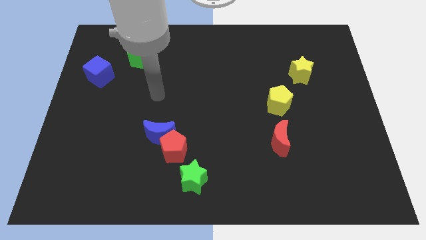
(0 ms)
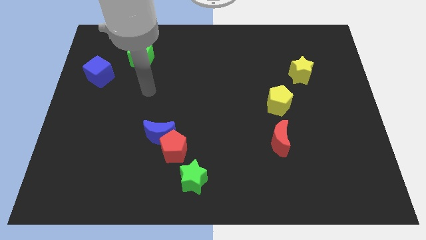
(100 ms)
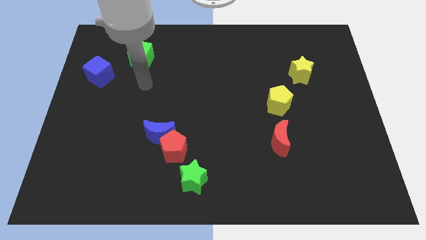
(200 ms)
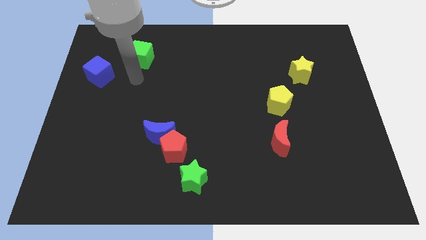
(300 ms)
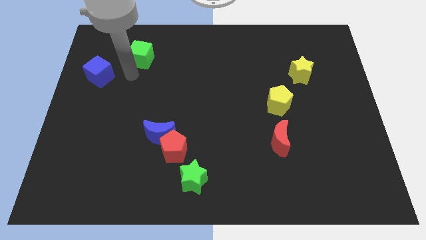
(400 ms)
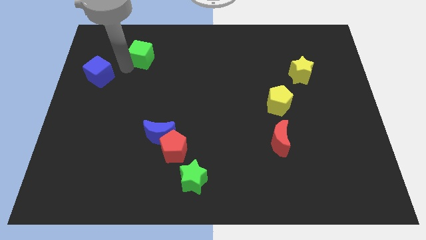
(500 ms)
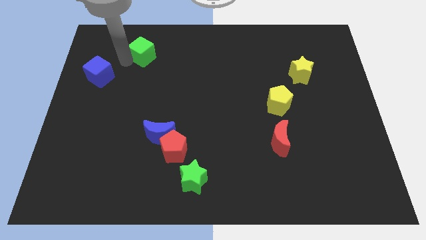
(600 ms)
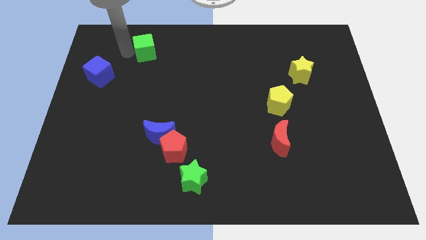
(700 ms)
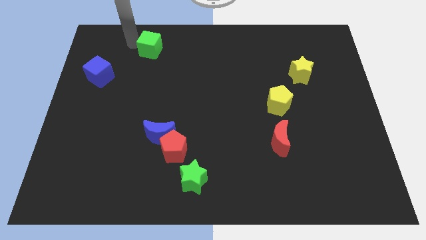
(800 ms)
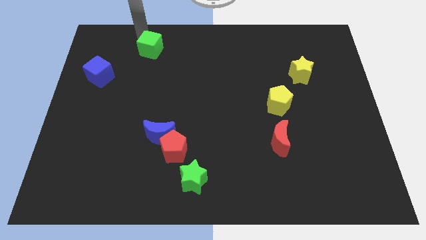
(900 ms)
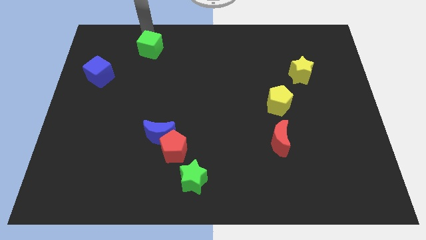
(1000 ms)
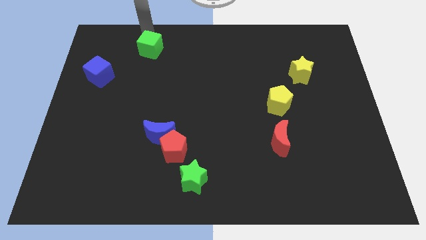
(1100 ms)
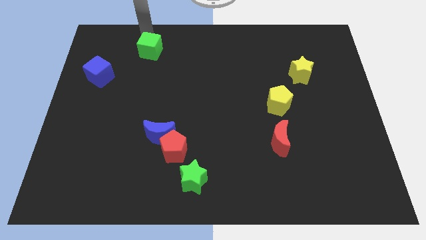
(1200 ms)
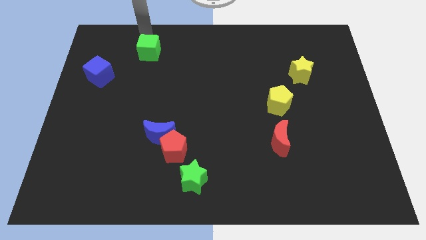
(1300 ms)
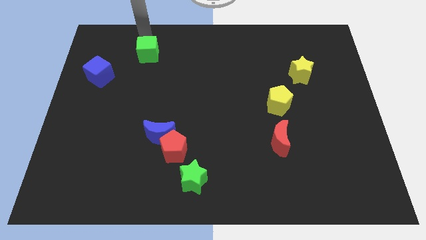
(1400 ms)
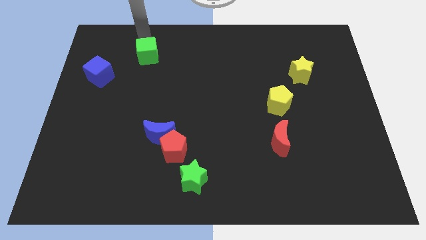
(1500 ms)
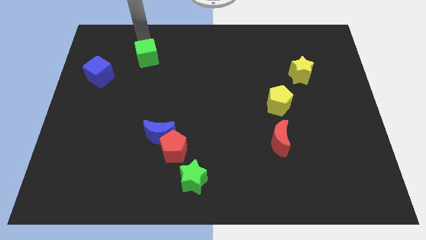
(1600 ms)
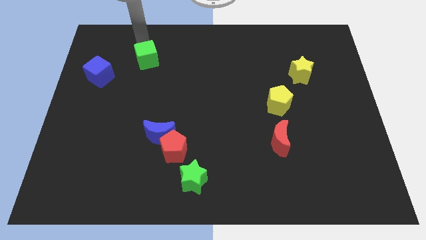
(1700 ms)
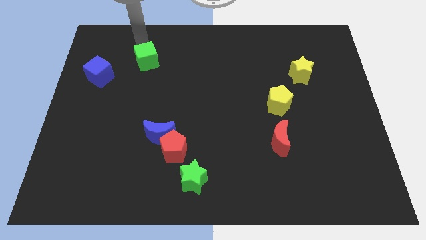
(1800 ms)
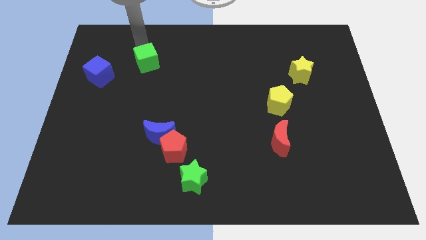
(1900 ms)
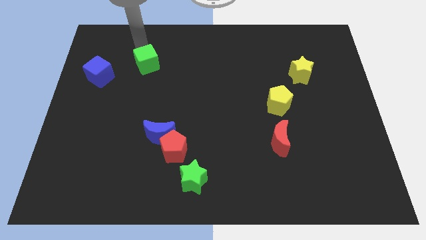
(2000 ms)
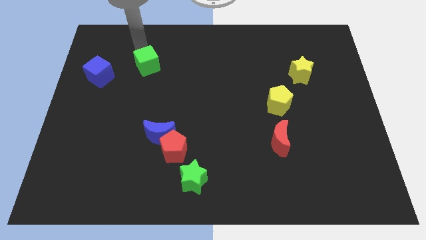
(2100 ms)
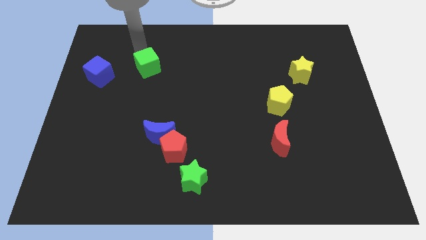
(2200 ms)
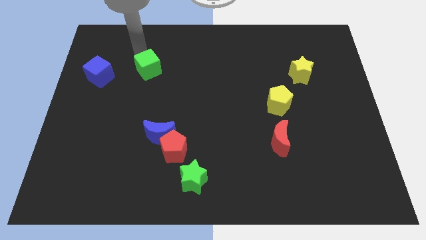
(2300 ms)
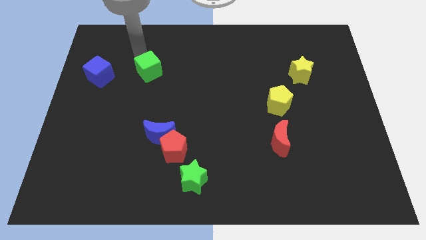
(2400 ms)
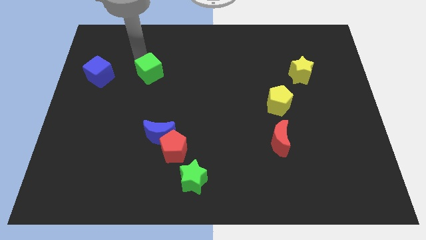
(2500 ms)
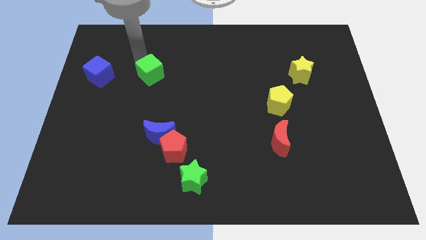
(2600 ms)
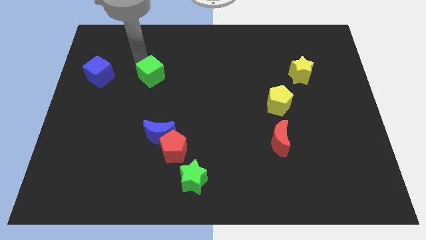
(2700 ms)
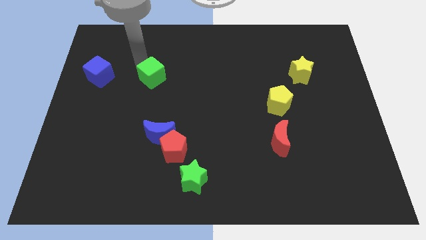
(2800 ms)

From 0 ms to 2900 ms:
slightly slide the green cube diagonally downwards and right

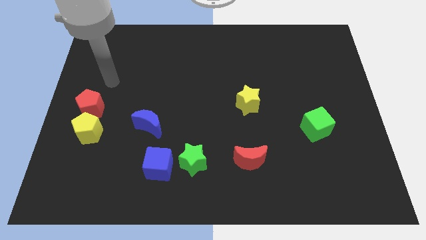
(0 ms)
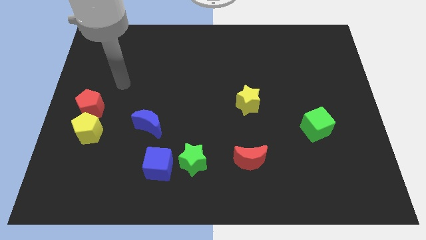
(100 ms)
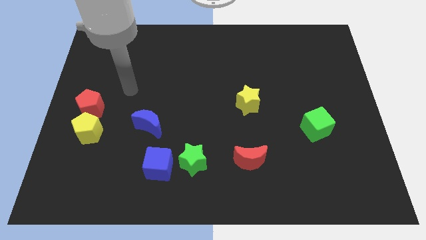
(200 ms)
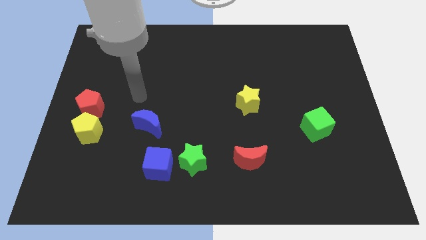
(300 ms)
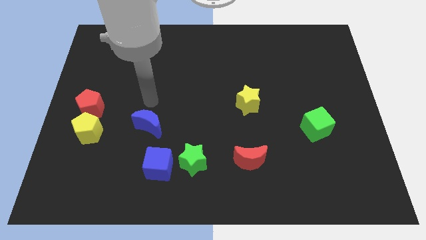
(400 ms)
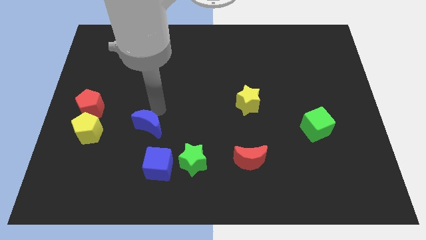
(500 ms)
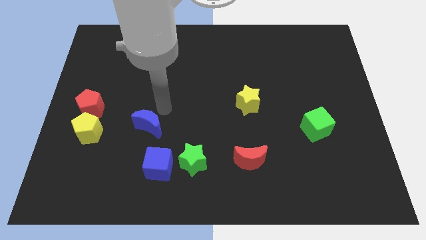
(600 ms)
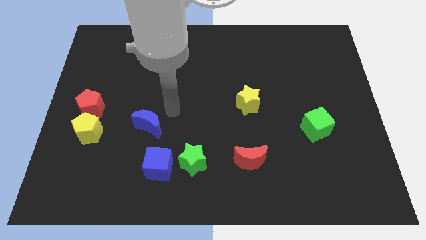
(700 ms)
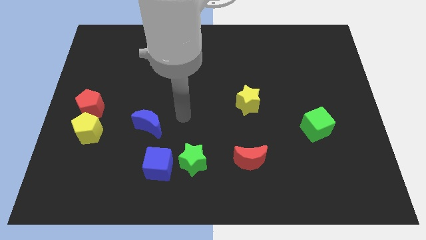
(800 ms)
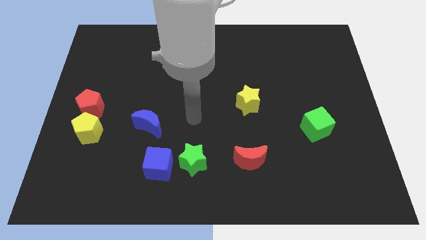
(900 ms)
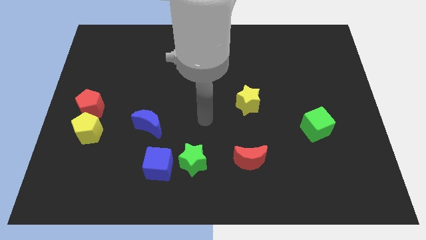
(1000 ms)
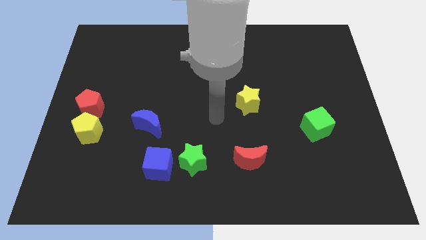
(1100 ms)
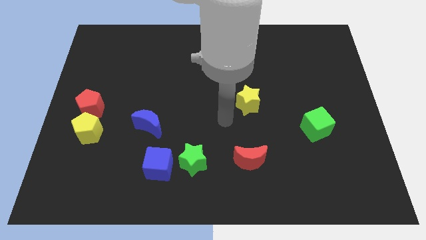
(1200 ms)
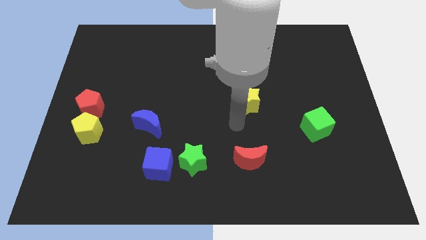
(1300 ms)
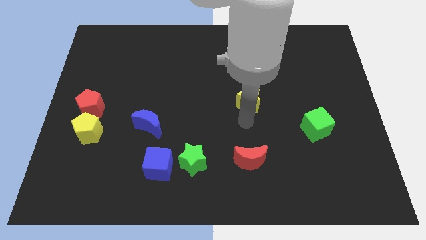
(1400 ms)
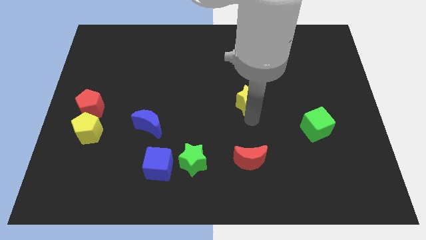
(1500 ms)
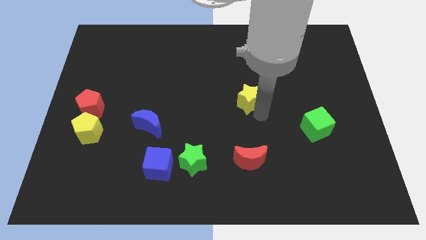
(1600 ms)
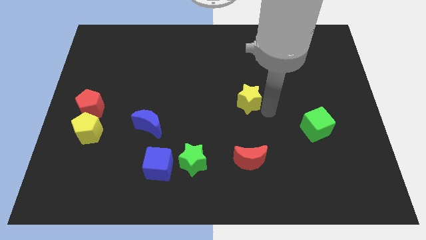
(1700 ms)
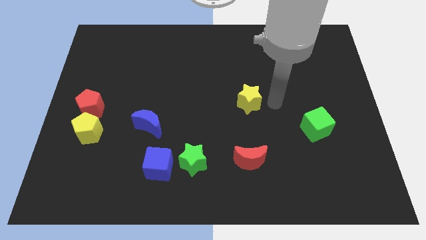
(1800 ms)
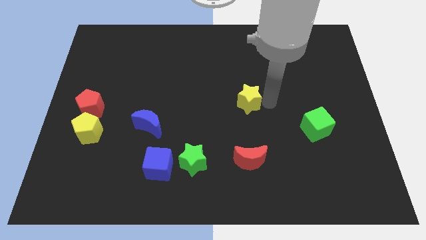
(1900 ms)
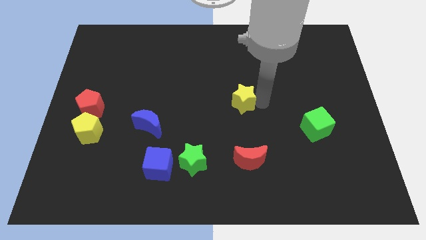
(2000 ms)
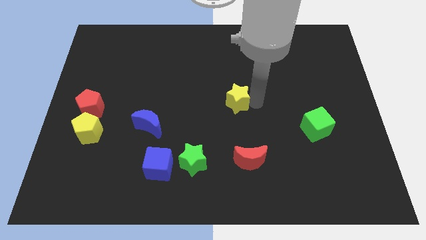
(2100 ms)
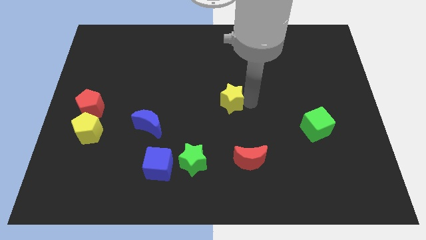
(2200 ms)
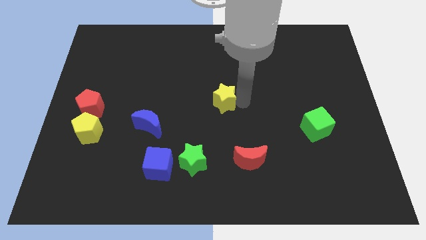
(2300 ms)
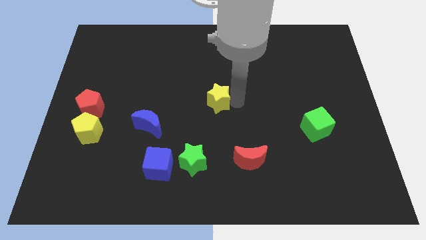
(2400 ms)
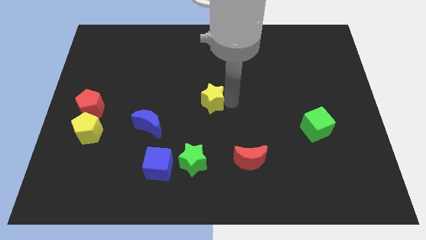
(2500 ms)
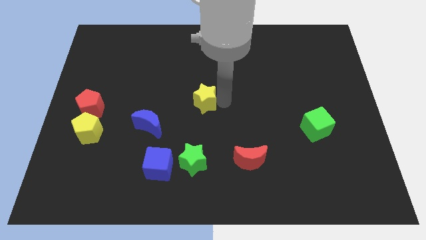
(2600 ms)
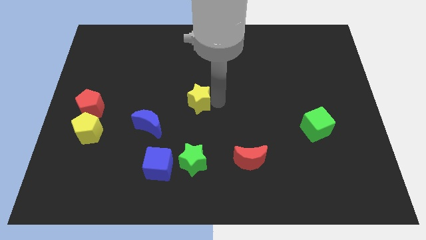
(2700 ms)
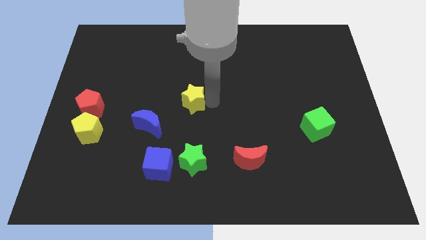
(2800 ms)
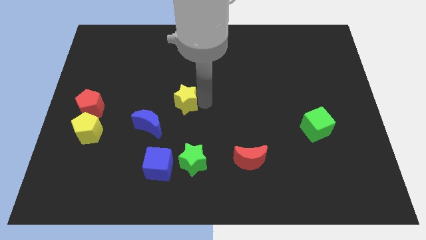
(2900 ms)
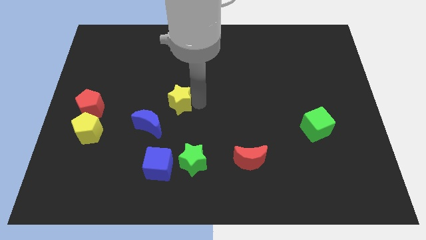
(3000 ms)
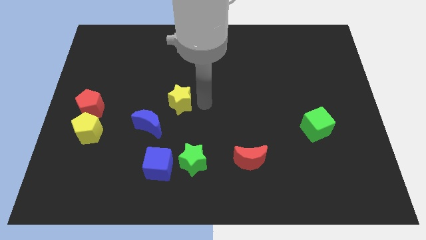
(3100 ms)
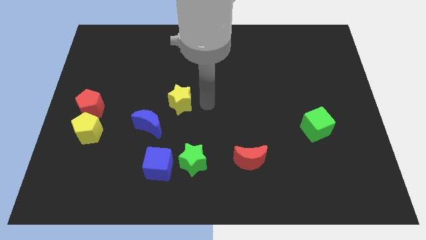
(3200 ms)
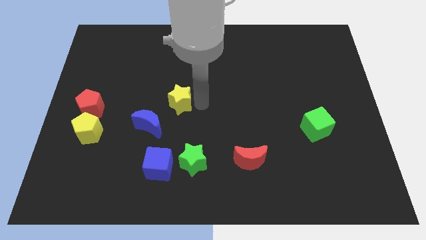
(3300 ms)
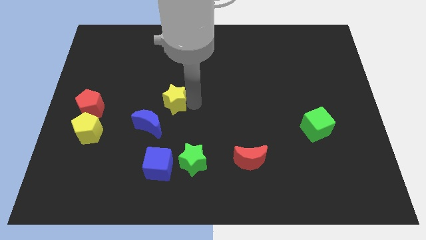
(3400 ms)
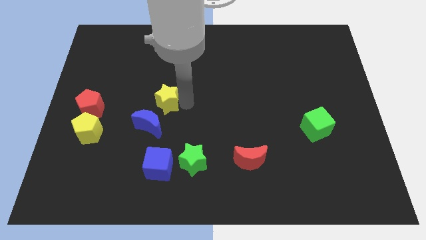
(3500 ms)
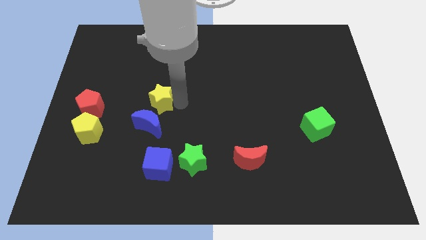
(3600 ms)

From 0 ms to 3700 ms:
move the yellow star left

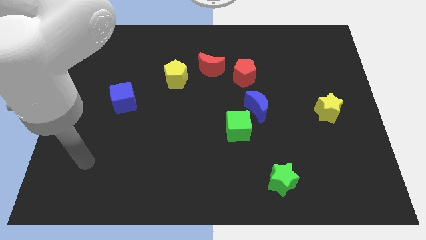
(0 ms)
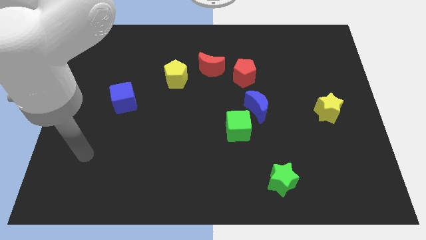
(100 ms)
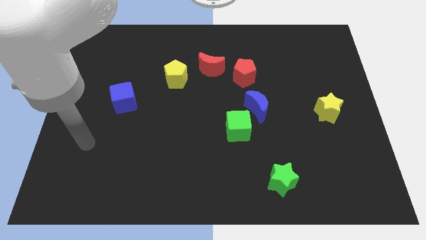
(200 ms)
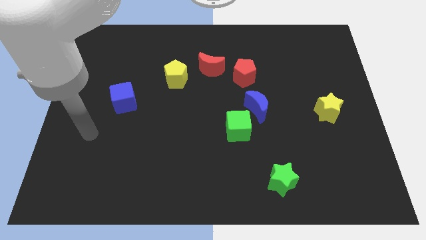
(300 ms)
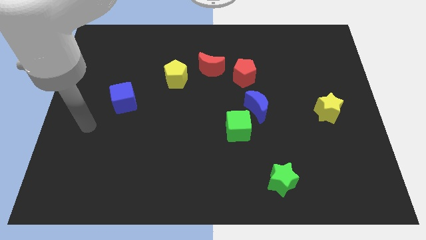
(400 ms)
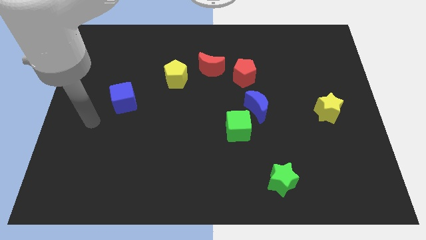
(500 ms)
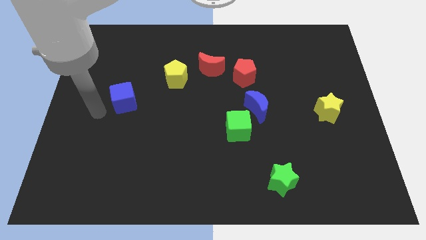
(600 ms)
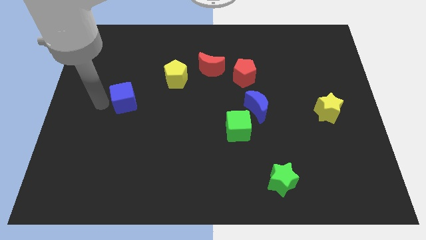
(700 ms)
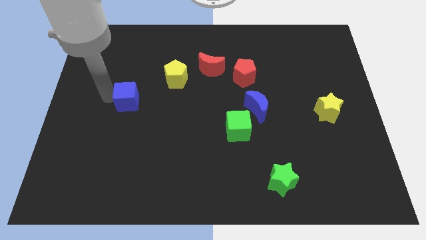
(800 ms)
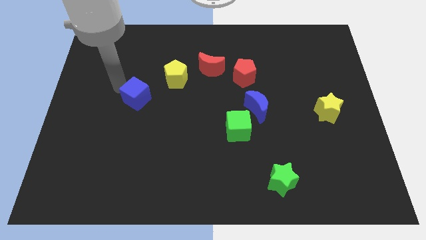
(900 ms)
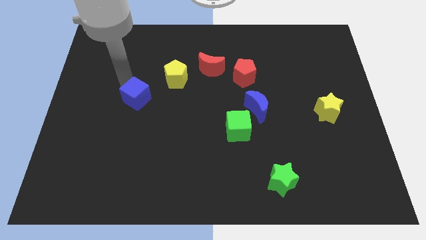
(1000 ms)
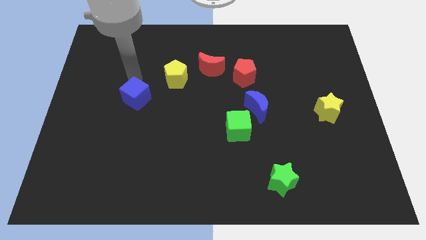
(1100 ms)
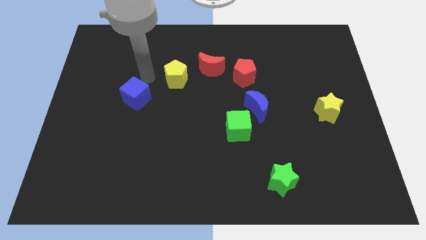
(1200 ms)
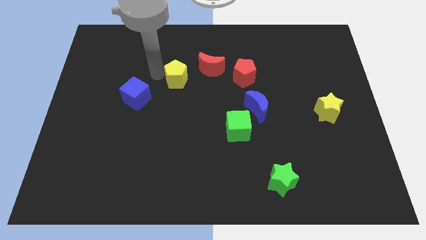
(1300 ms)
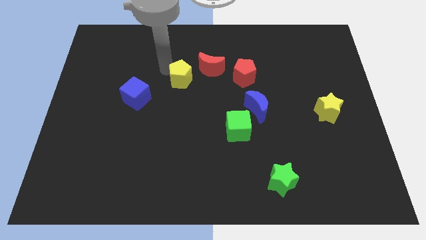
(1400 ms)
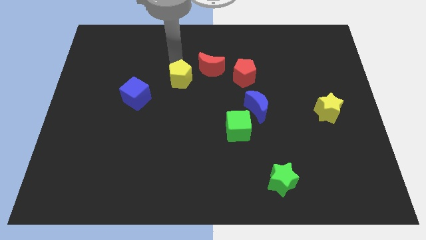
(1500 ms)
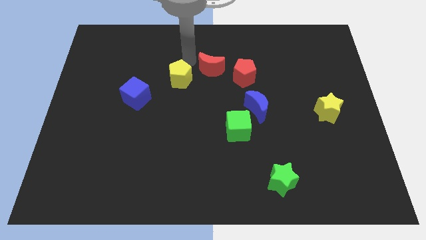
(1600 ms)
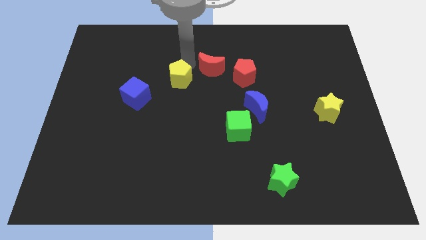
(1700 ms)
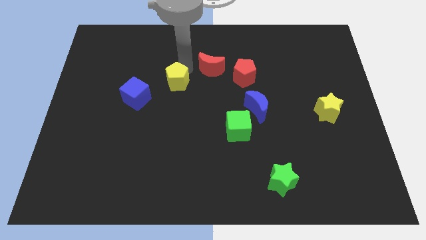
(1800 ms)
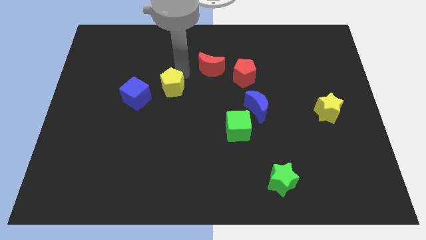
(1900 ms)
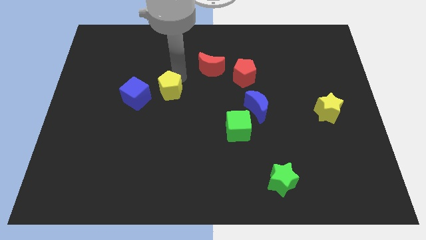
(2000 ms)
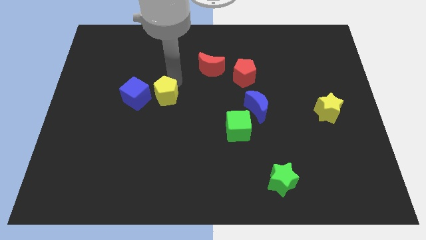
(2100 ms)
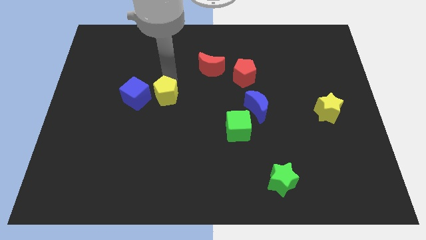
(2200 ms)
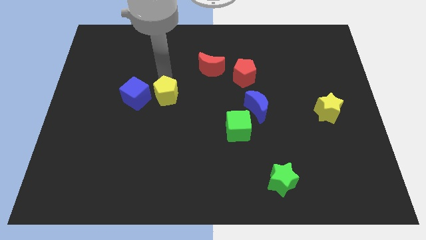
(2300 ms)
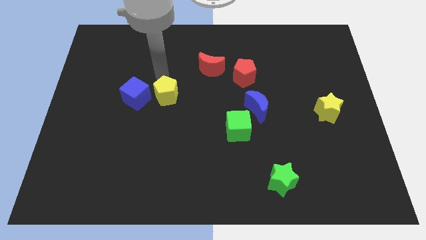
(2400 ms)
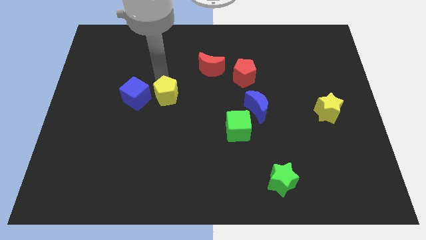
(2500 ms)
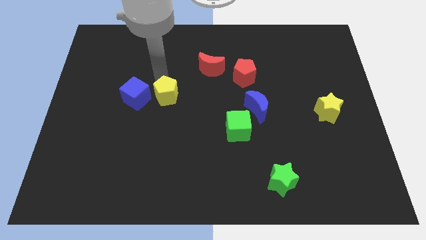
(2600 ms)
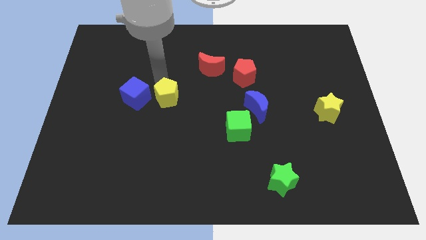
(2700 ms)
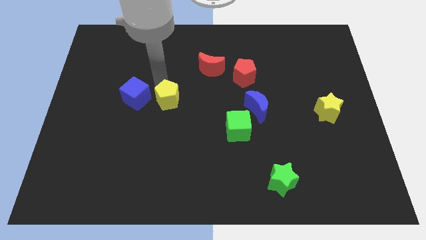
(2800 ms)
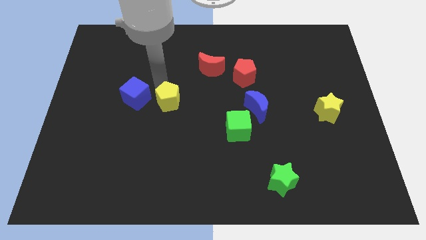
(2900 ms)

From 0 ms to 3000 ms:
move the yellow pentagon down a little
